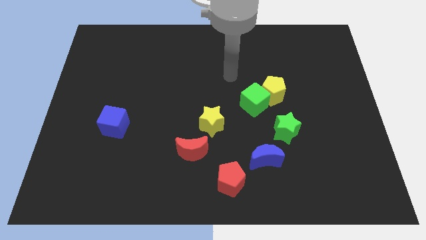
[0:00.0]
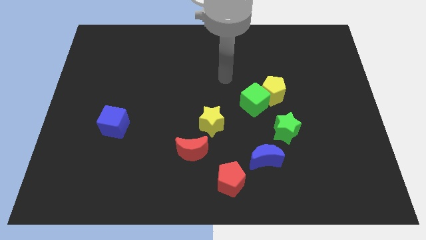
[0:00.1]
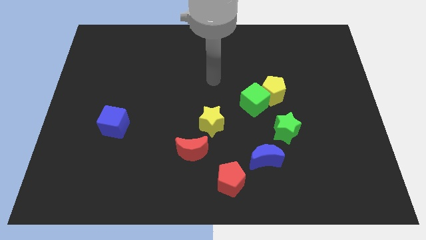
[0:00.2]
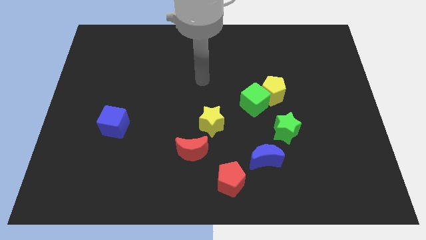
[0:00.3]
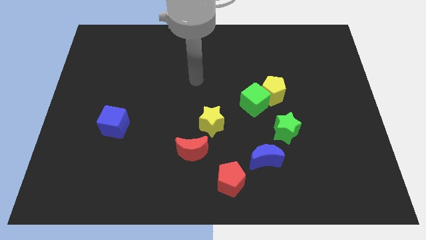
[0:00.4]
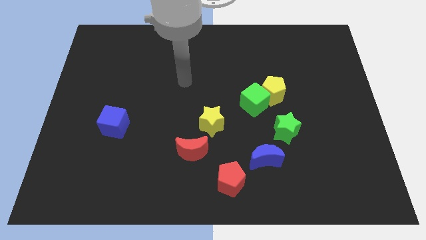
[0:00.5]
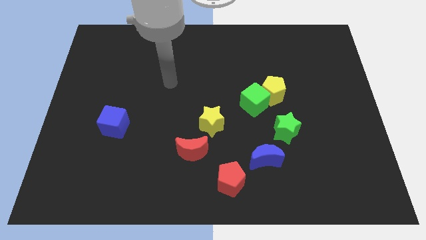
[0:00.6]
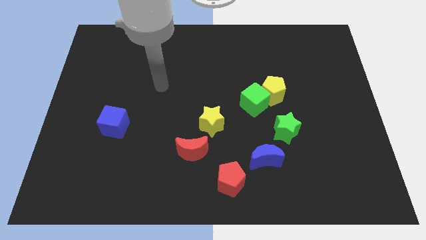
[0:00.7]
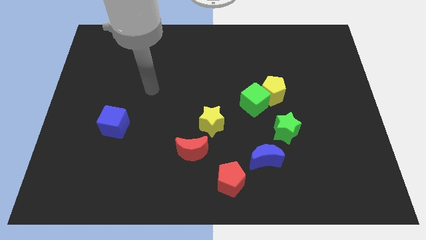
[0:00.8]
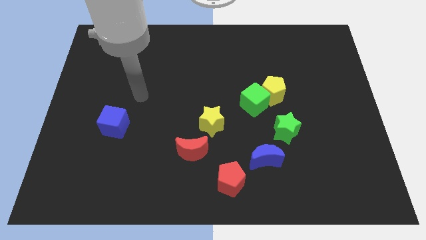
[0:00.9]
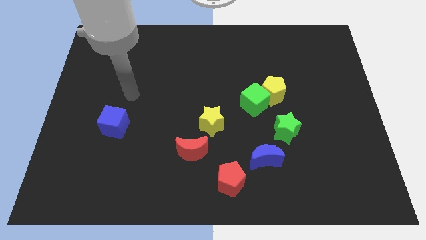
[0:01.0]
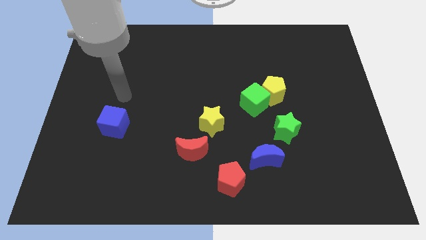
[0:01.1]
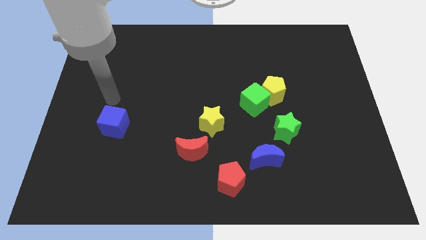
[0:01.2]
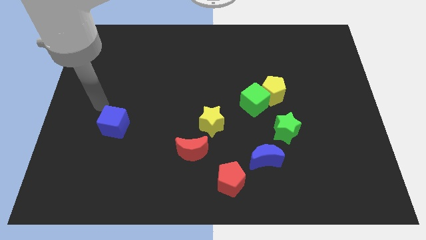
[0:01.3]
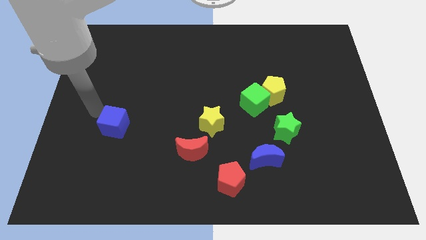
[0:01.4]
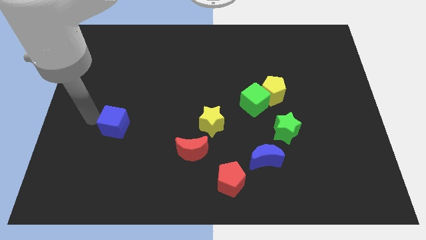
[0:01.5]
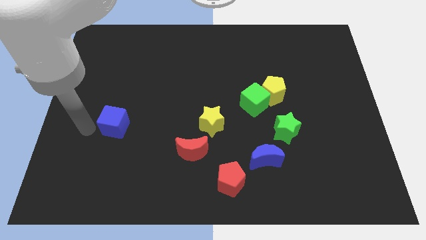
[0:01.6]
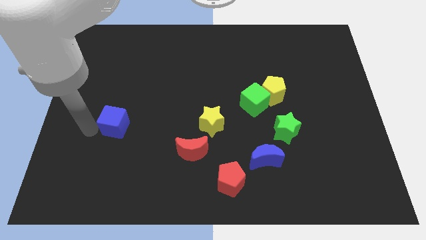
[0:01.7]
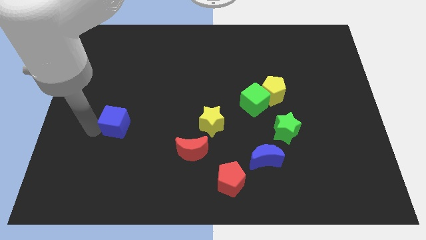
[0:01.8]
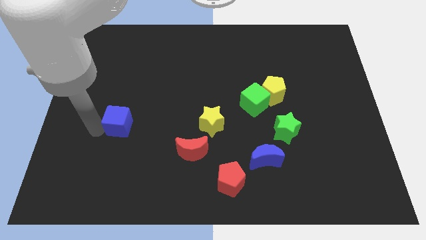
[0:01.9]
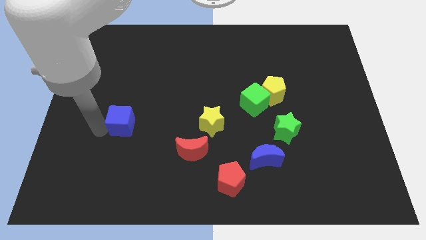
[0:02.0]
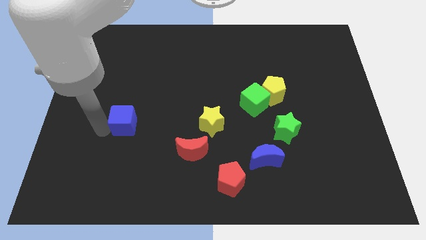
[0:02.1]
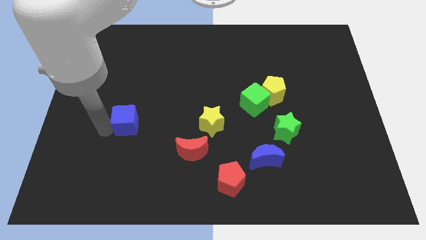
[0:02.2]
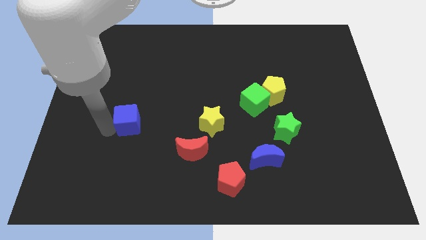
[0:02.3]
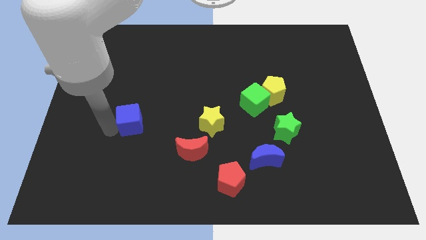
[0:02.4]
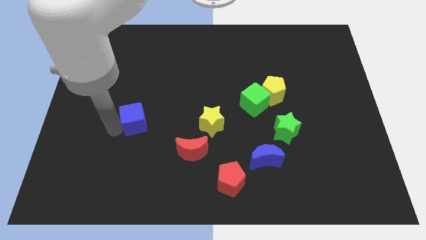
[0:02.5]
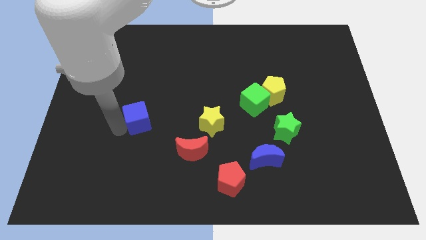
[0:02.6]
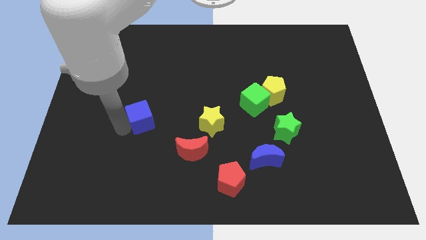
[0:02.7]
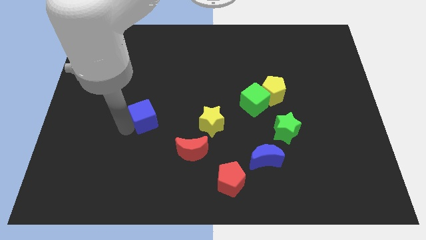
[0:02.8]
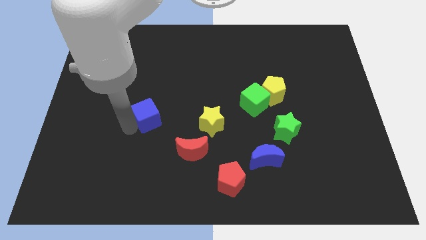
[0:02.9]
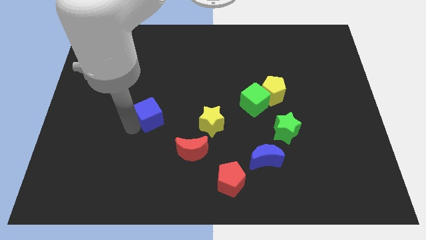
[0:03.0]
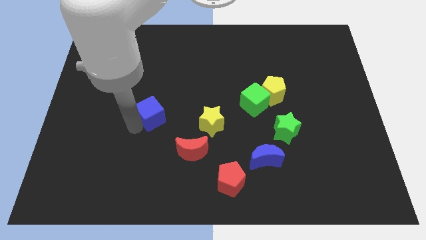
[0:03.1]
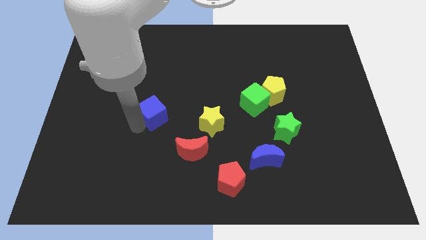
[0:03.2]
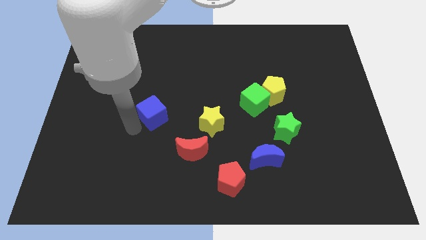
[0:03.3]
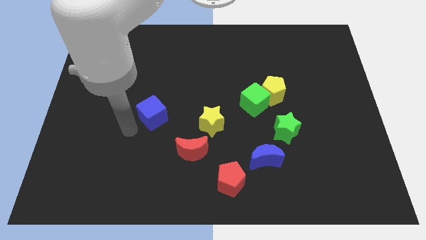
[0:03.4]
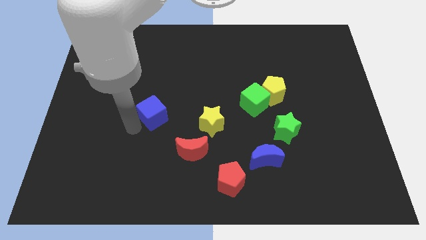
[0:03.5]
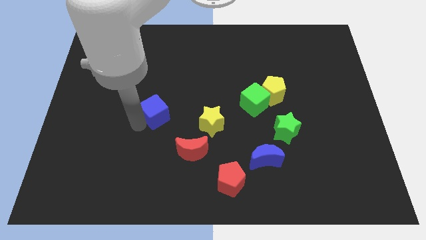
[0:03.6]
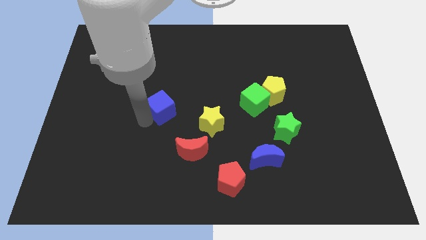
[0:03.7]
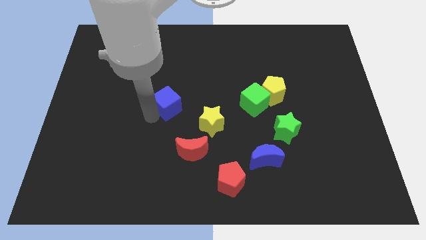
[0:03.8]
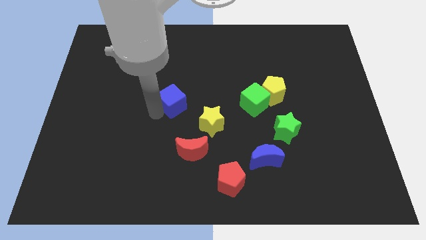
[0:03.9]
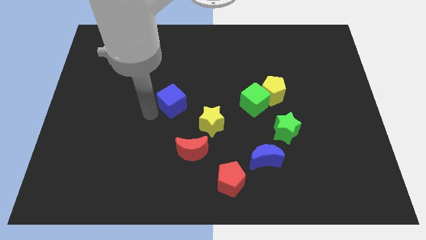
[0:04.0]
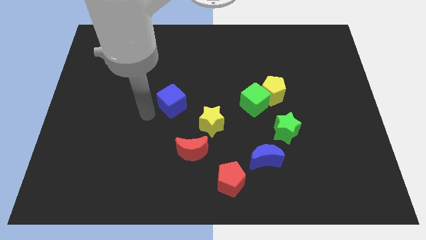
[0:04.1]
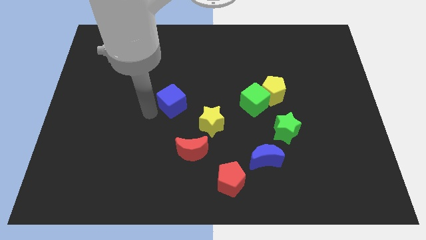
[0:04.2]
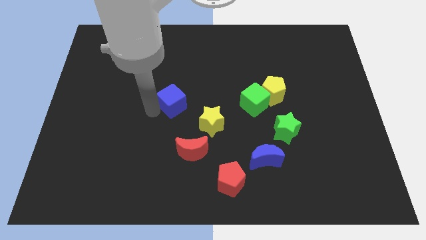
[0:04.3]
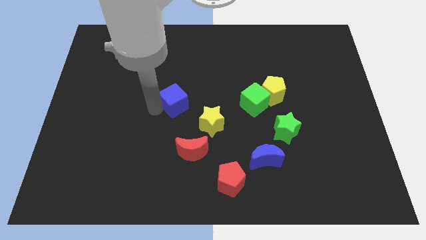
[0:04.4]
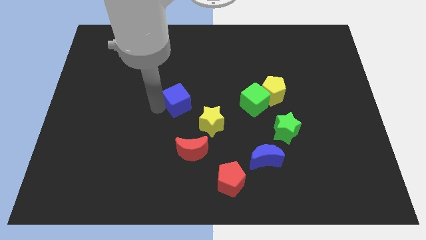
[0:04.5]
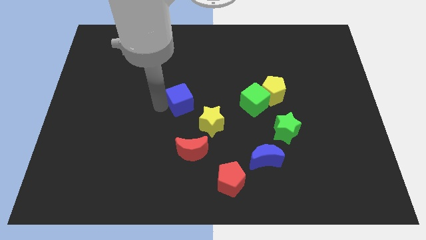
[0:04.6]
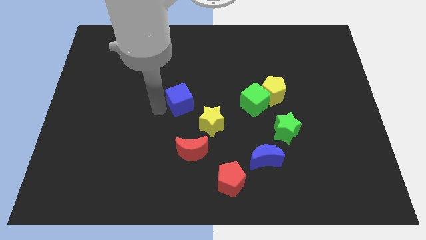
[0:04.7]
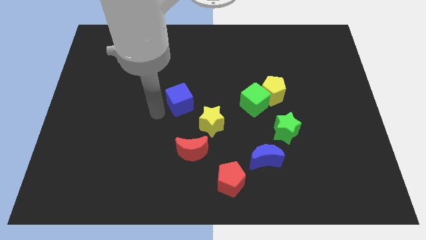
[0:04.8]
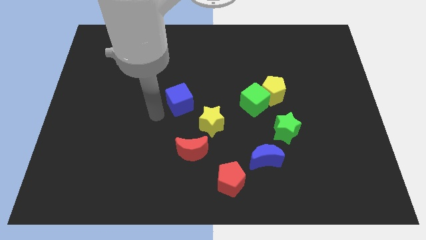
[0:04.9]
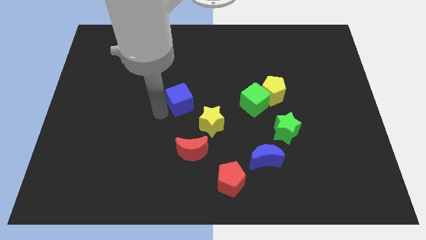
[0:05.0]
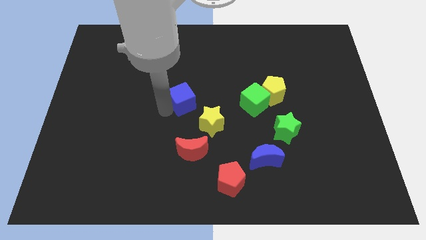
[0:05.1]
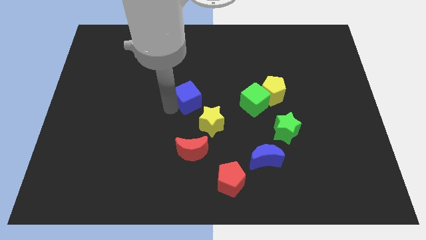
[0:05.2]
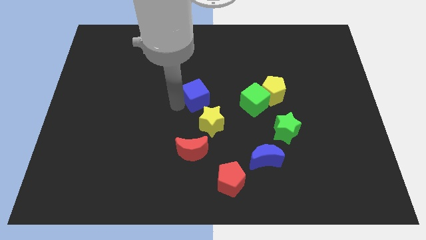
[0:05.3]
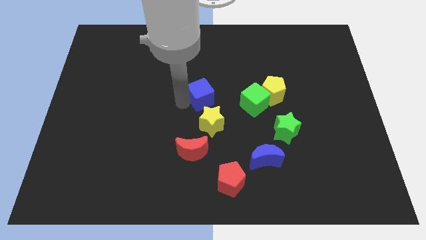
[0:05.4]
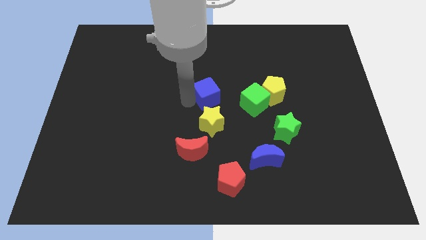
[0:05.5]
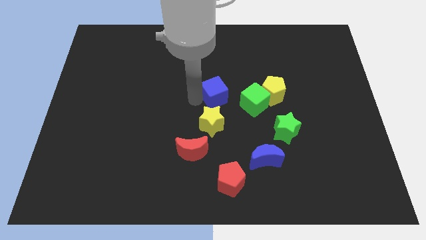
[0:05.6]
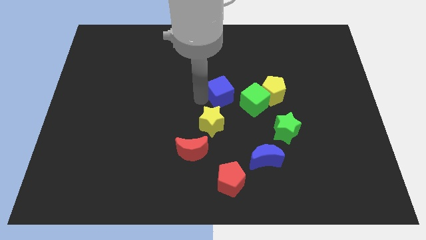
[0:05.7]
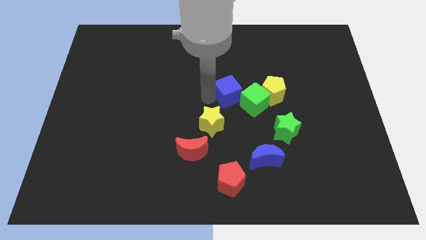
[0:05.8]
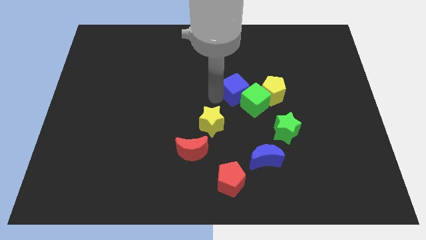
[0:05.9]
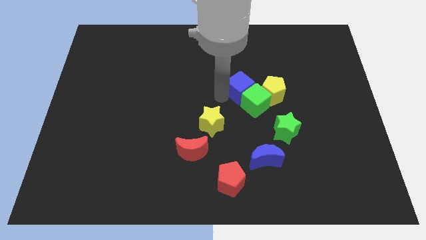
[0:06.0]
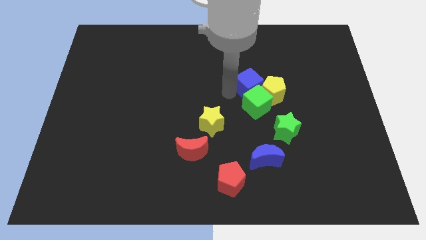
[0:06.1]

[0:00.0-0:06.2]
push the blue cube close to the yellow pentagon

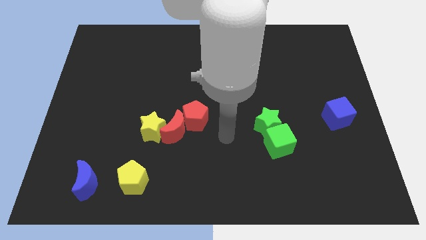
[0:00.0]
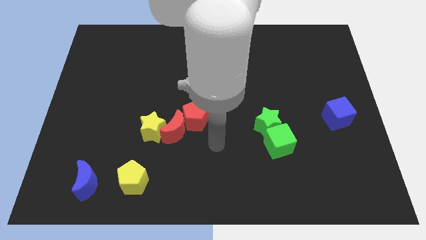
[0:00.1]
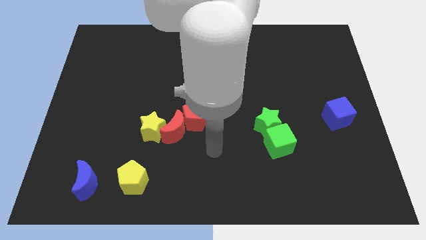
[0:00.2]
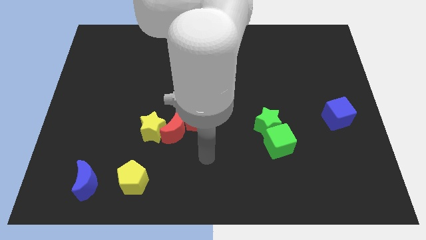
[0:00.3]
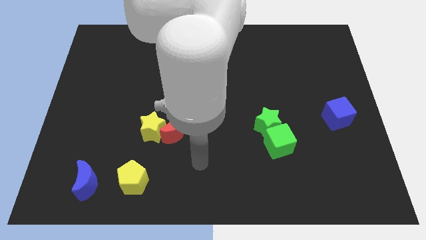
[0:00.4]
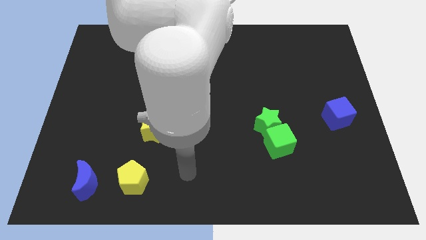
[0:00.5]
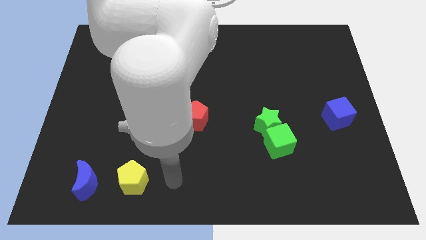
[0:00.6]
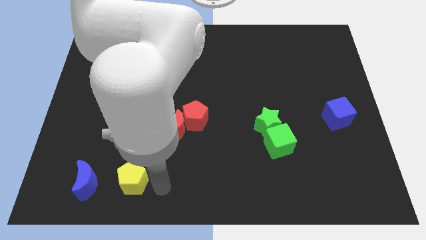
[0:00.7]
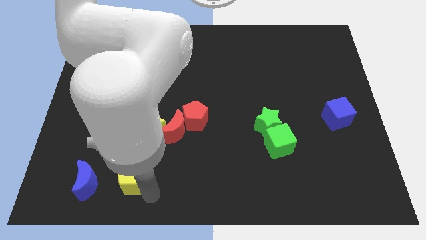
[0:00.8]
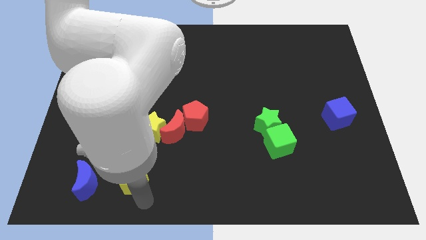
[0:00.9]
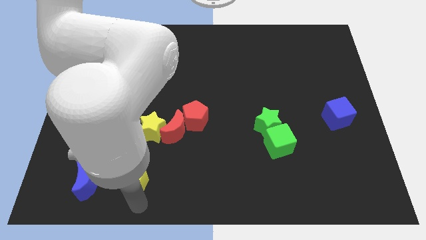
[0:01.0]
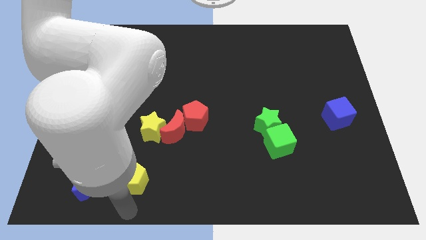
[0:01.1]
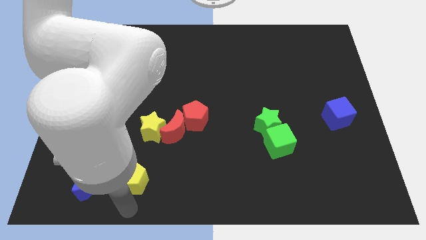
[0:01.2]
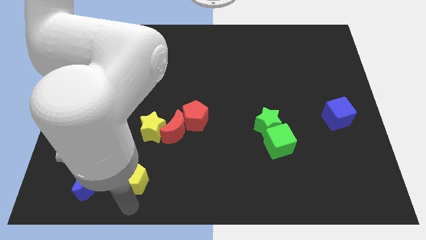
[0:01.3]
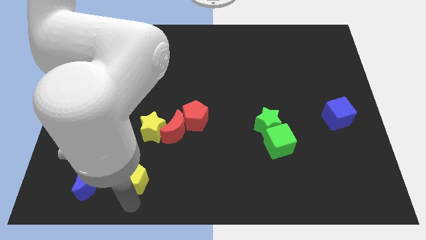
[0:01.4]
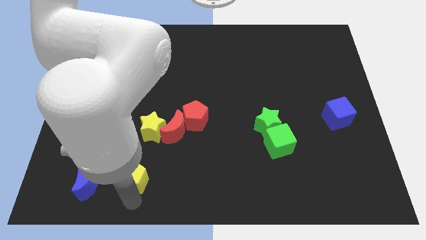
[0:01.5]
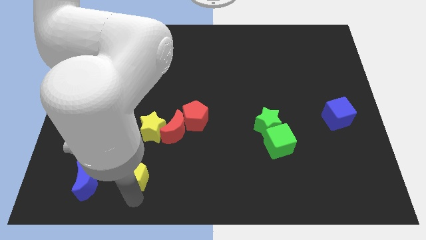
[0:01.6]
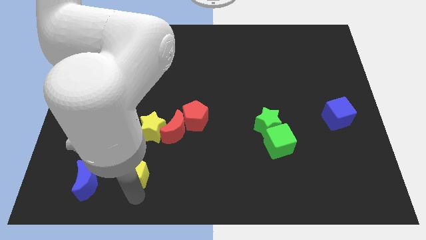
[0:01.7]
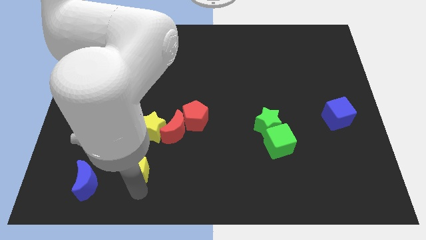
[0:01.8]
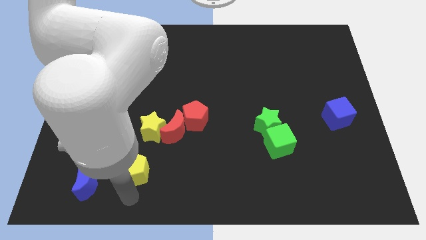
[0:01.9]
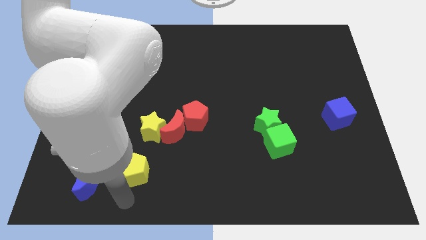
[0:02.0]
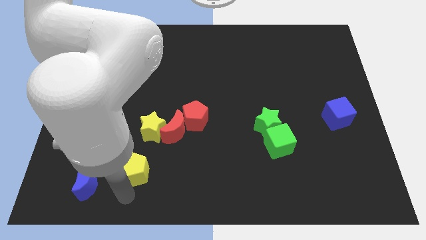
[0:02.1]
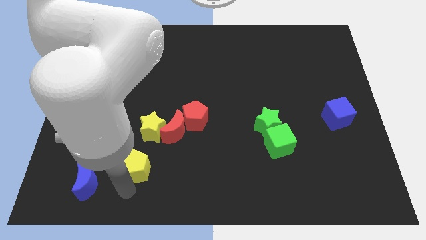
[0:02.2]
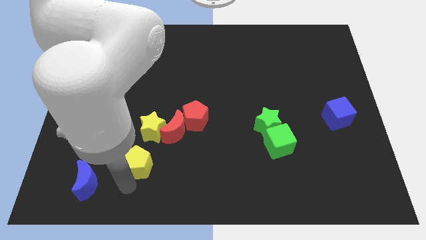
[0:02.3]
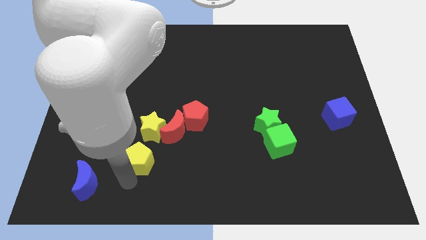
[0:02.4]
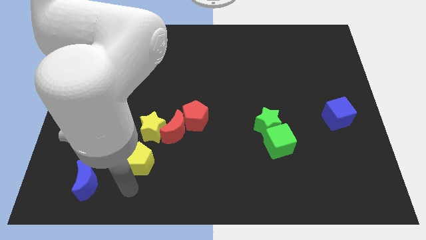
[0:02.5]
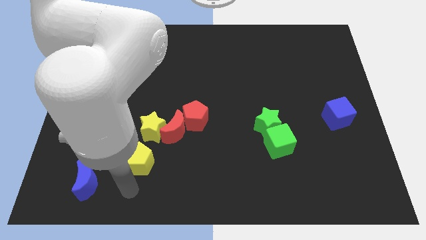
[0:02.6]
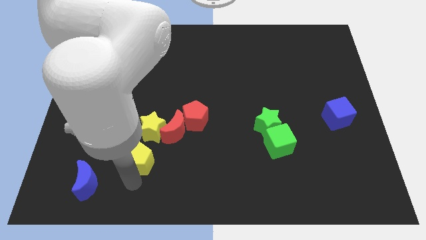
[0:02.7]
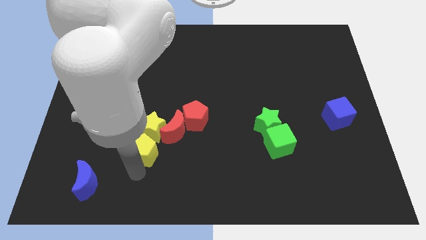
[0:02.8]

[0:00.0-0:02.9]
slide the yellow pentagon close to the yellow star
